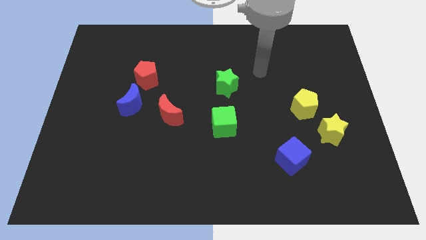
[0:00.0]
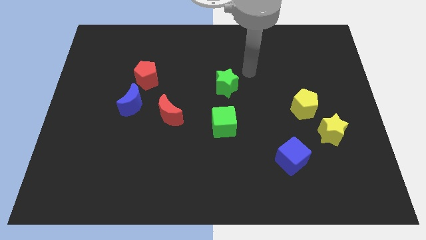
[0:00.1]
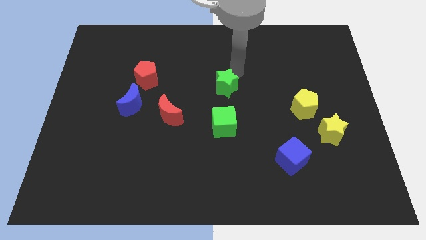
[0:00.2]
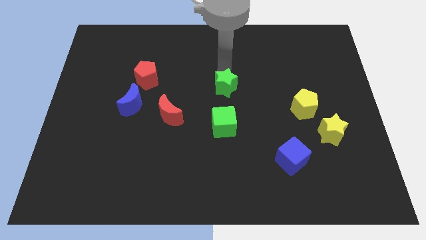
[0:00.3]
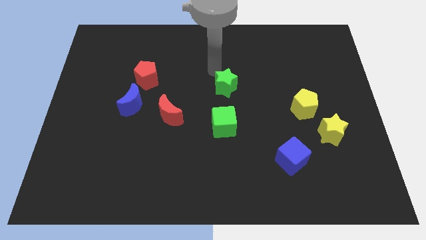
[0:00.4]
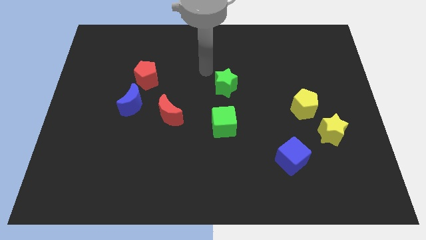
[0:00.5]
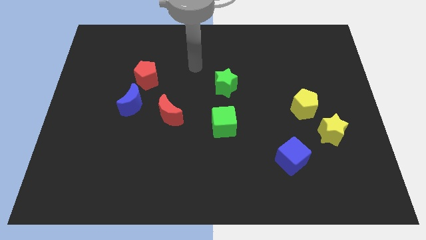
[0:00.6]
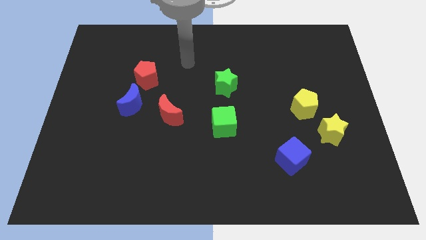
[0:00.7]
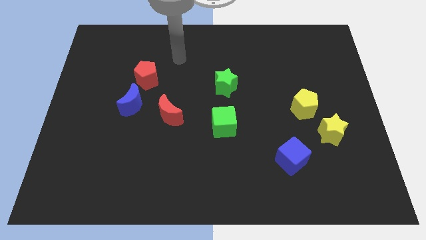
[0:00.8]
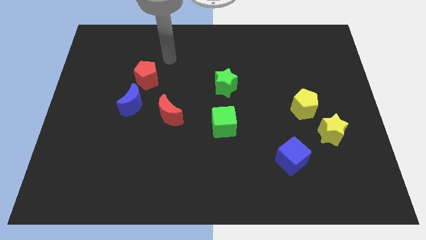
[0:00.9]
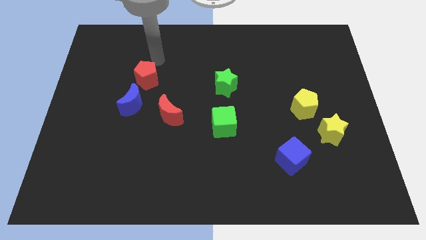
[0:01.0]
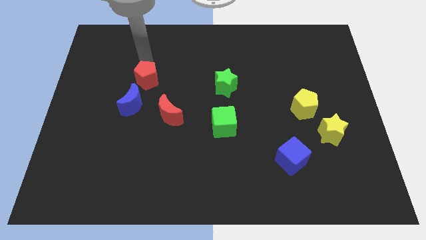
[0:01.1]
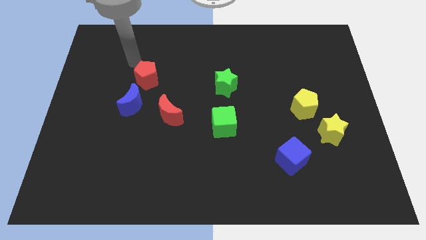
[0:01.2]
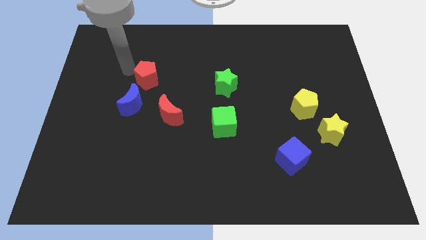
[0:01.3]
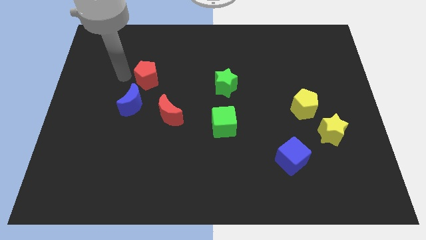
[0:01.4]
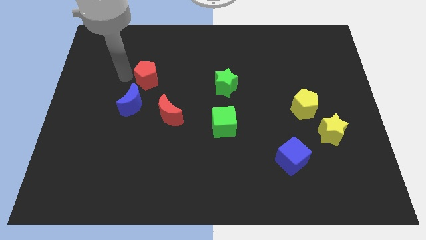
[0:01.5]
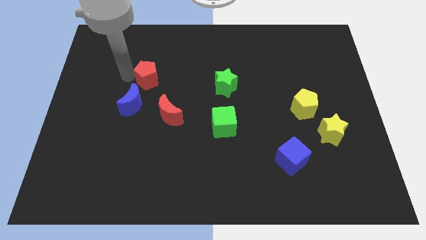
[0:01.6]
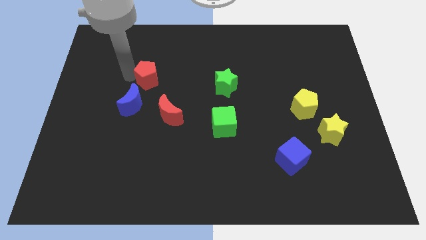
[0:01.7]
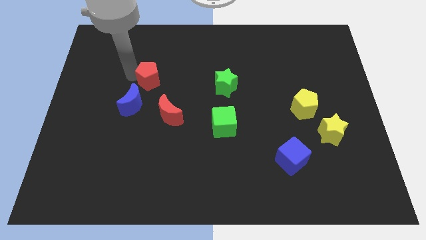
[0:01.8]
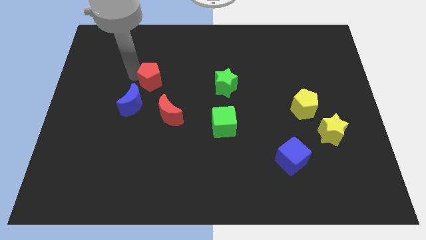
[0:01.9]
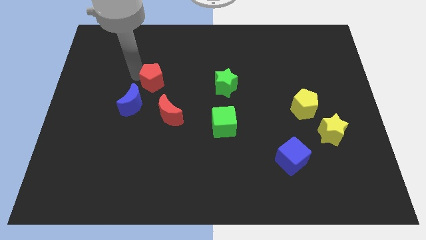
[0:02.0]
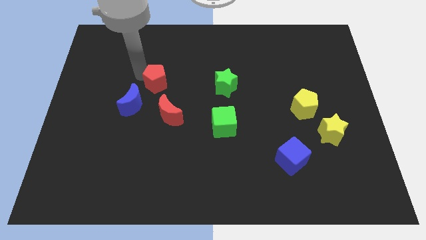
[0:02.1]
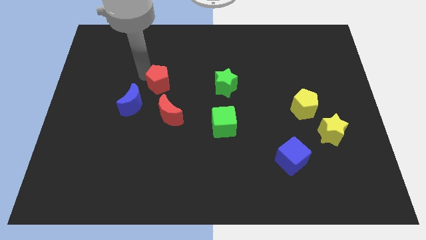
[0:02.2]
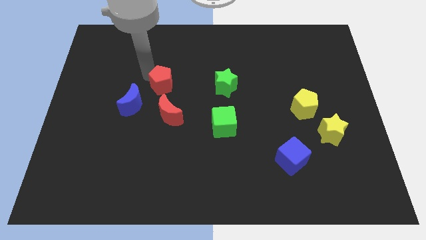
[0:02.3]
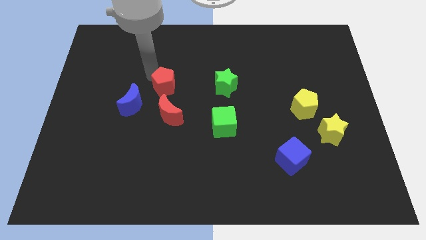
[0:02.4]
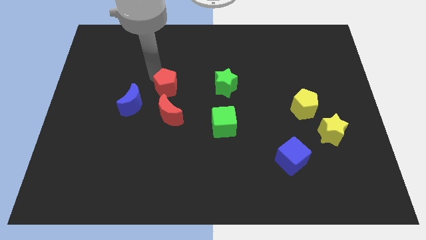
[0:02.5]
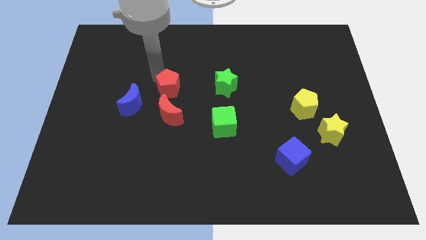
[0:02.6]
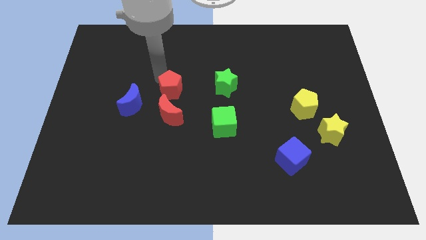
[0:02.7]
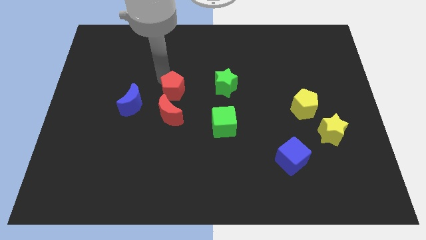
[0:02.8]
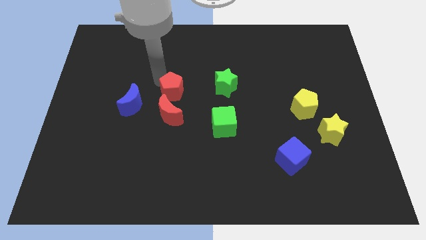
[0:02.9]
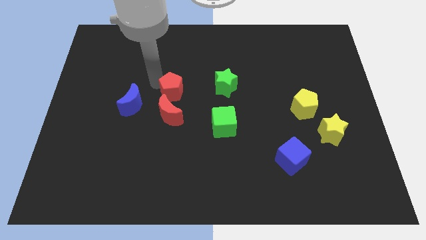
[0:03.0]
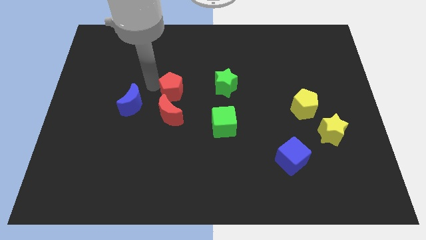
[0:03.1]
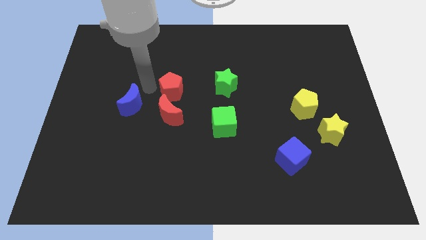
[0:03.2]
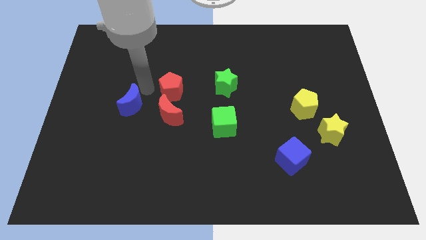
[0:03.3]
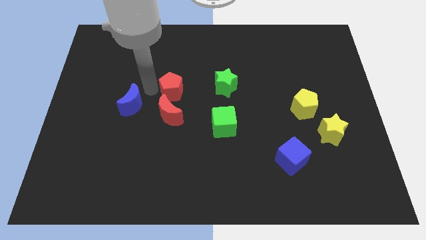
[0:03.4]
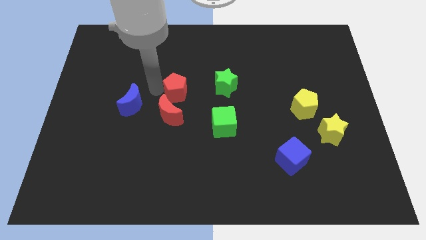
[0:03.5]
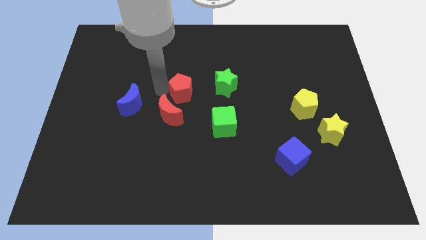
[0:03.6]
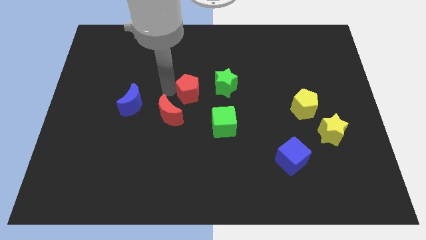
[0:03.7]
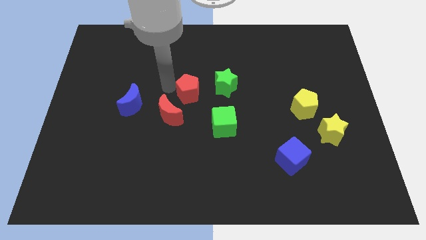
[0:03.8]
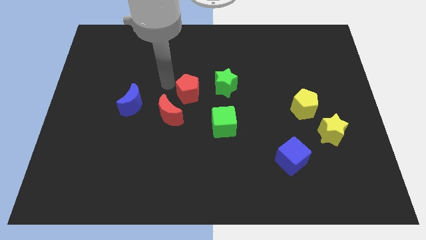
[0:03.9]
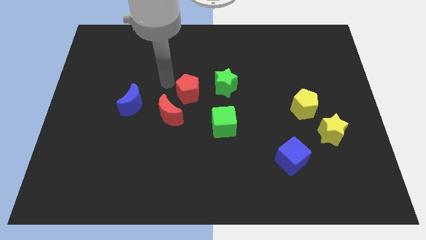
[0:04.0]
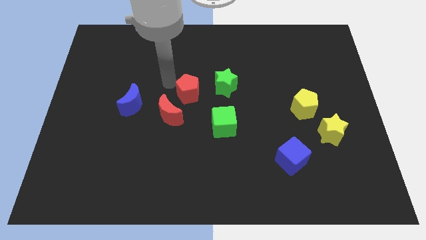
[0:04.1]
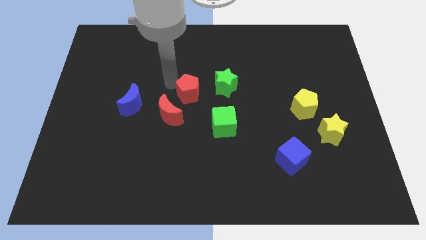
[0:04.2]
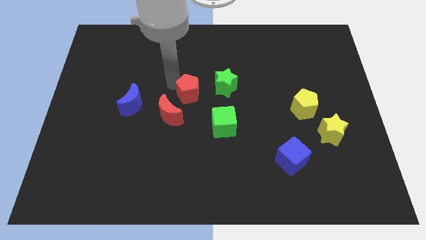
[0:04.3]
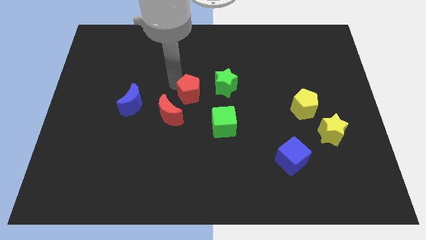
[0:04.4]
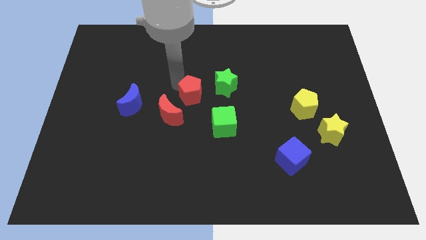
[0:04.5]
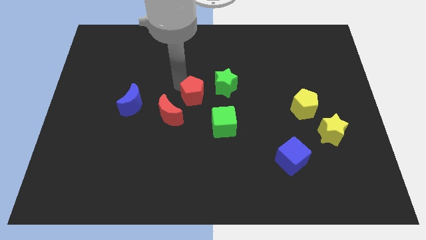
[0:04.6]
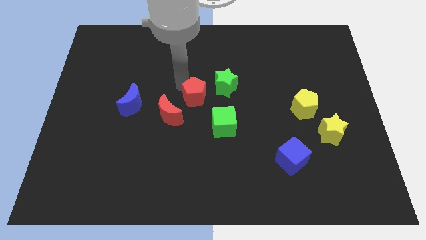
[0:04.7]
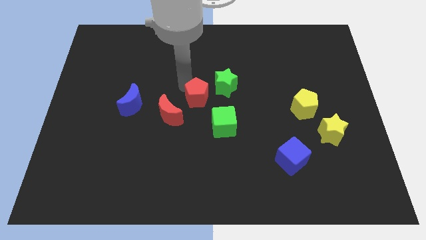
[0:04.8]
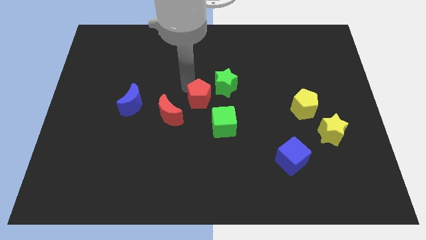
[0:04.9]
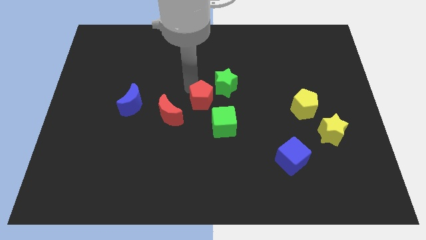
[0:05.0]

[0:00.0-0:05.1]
put the red pentagon right of the red moon

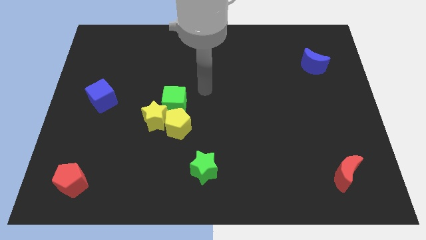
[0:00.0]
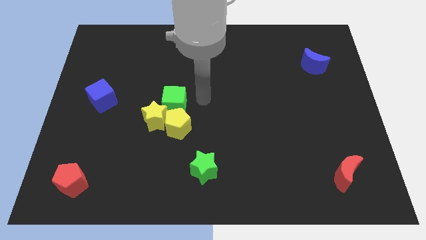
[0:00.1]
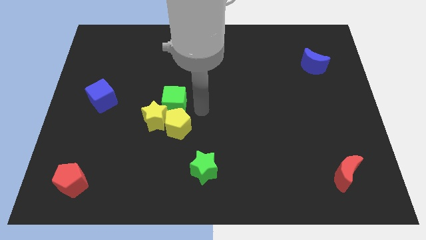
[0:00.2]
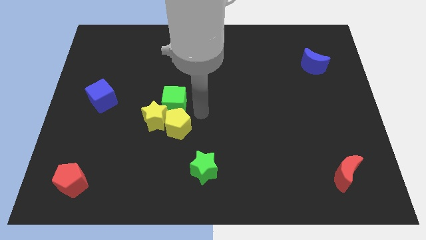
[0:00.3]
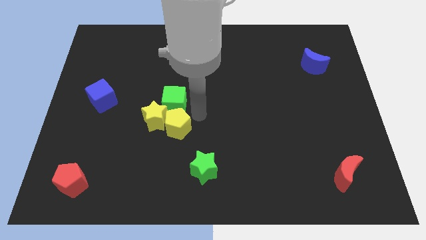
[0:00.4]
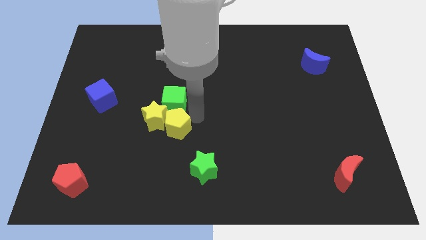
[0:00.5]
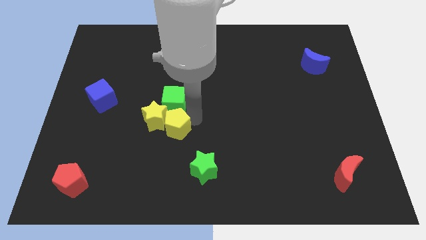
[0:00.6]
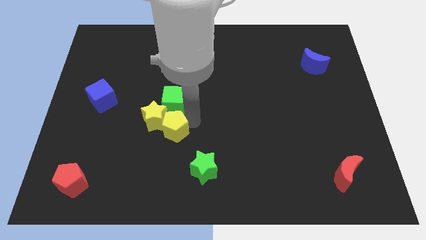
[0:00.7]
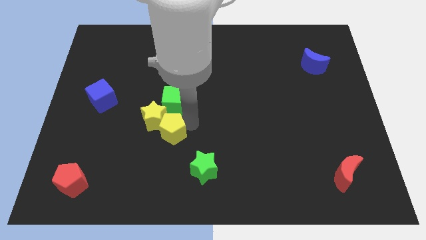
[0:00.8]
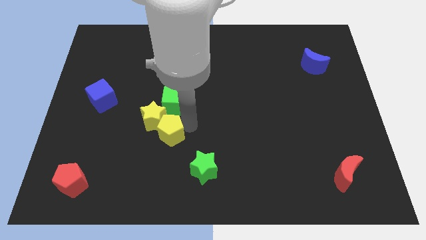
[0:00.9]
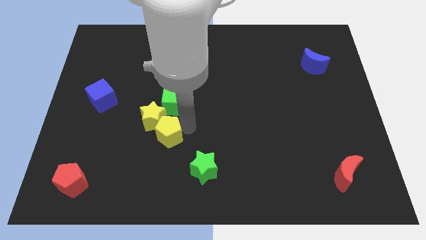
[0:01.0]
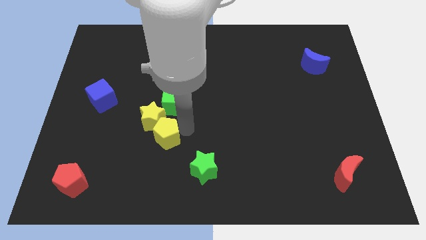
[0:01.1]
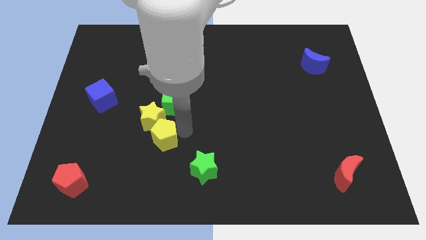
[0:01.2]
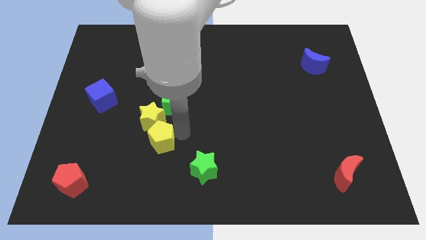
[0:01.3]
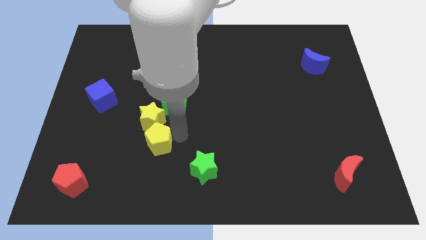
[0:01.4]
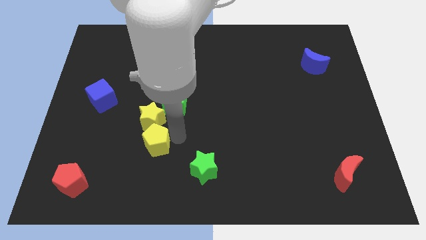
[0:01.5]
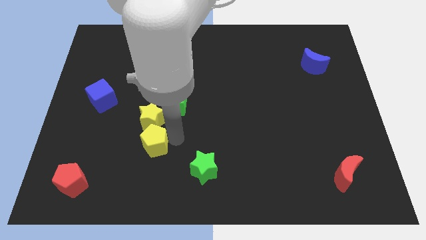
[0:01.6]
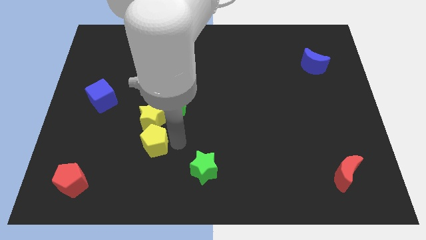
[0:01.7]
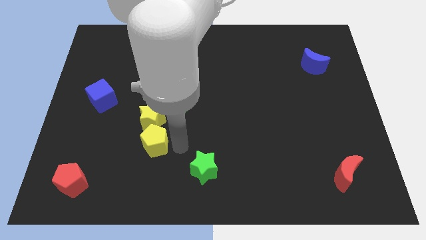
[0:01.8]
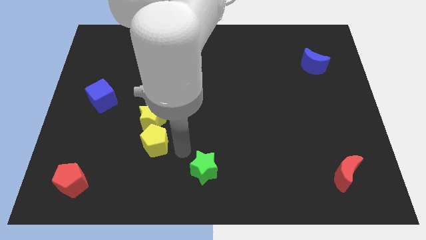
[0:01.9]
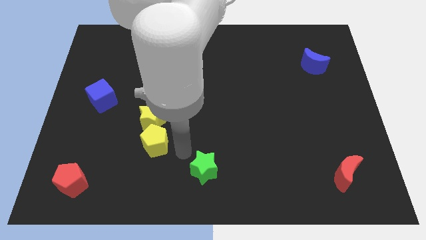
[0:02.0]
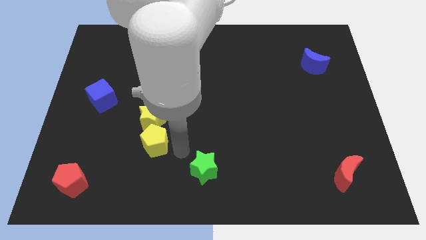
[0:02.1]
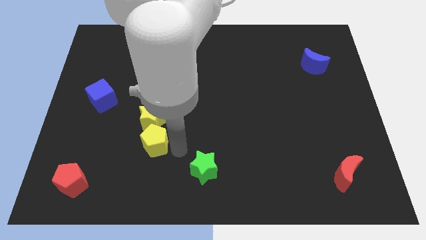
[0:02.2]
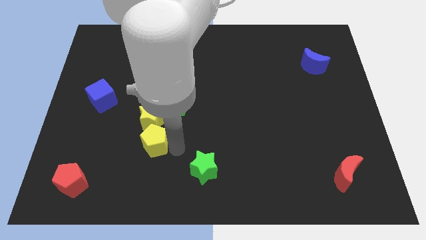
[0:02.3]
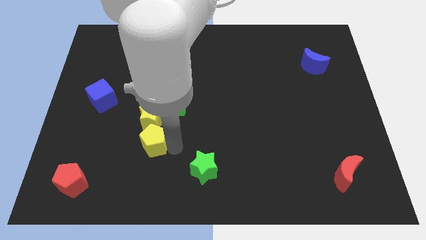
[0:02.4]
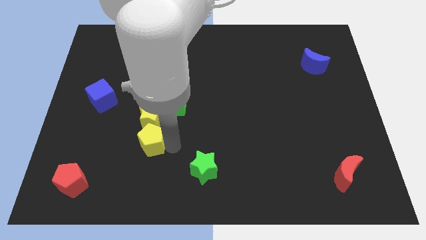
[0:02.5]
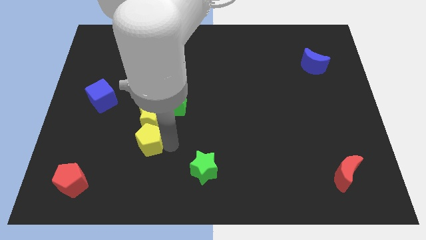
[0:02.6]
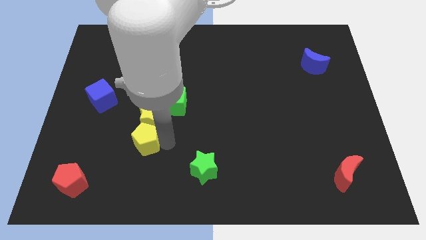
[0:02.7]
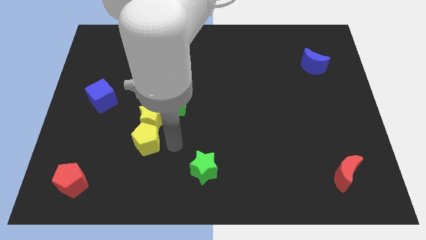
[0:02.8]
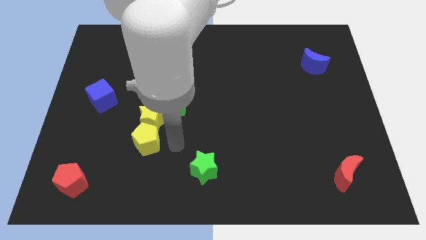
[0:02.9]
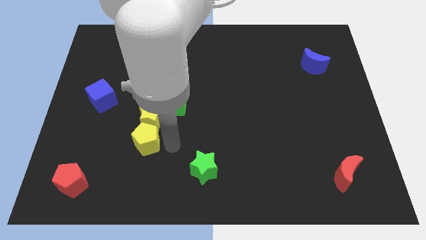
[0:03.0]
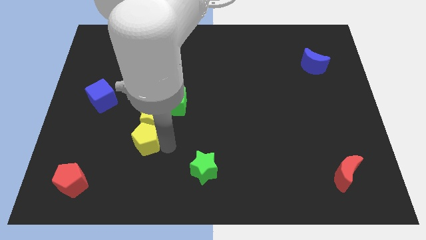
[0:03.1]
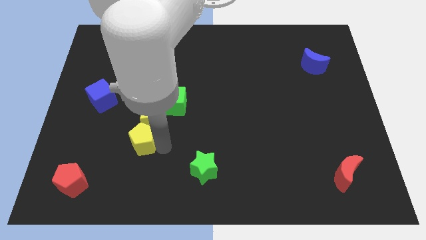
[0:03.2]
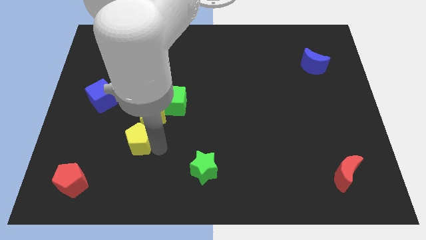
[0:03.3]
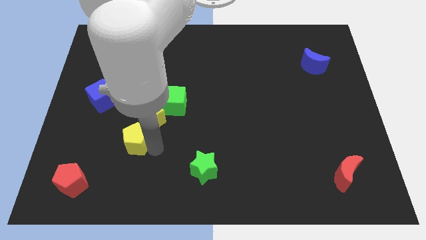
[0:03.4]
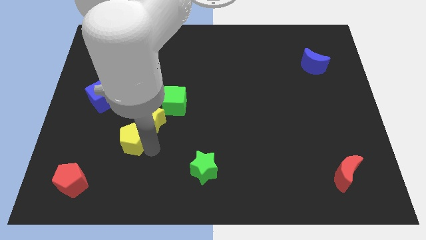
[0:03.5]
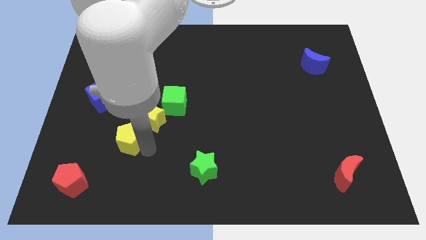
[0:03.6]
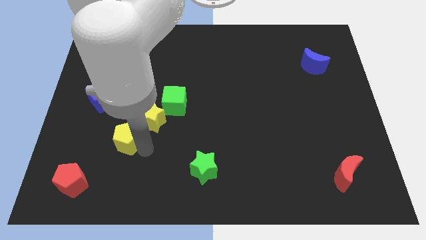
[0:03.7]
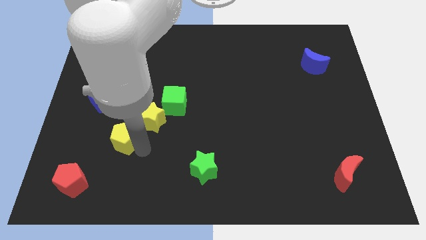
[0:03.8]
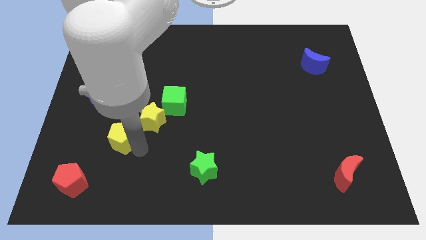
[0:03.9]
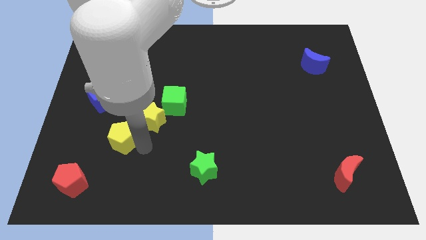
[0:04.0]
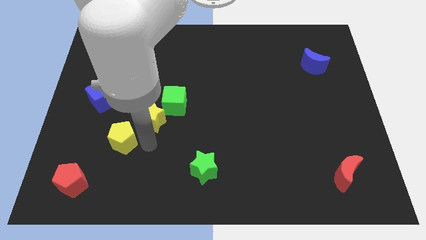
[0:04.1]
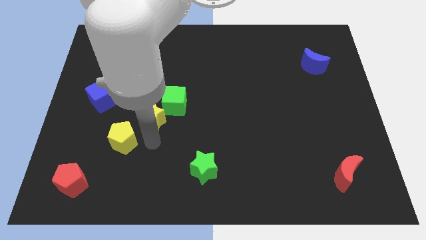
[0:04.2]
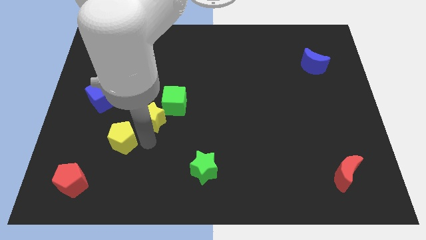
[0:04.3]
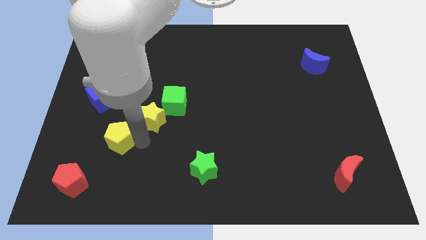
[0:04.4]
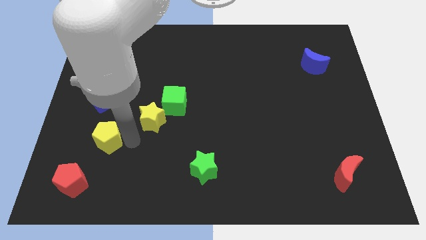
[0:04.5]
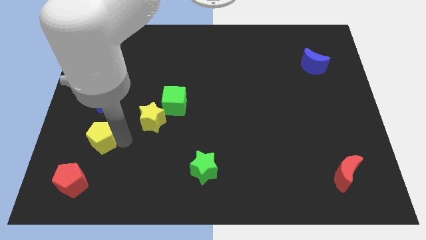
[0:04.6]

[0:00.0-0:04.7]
push the yellow pentagon above the red pentagon
